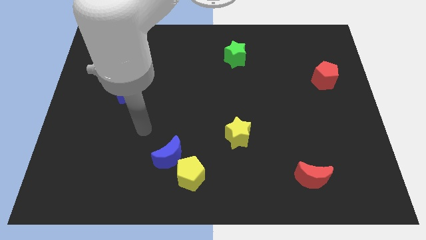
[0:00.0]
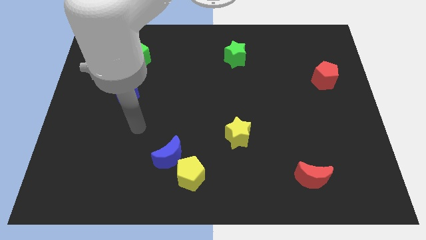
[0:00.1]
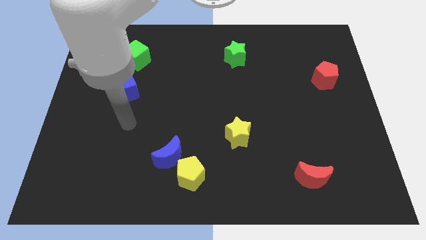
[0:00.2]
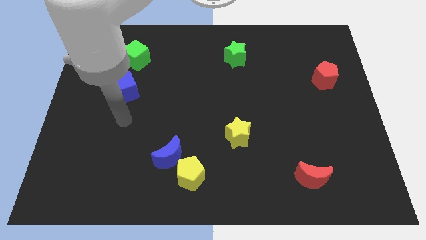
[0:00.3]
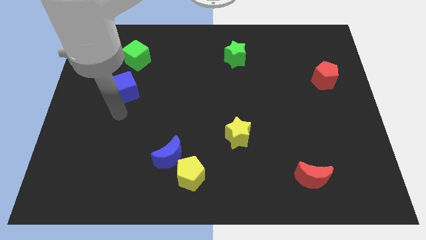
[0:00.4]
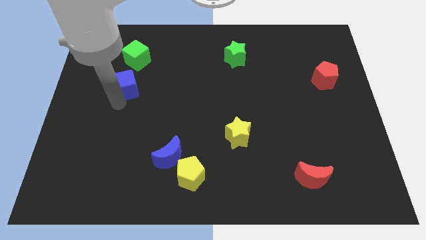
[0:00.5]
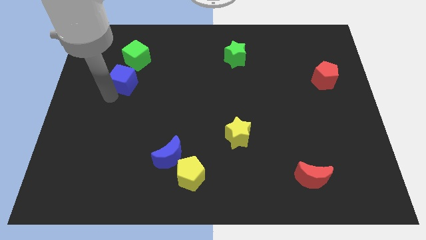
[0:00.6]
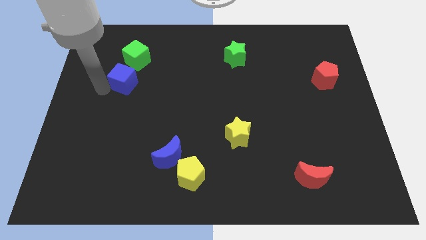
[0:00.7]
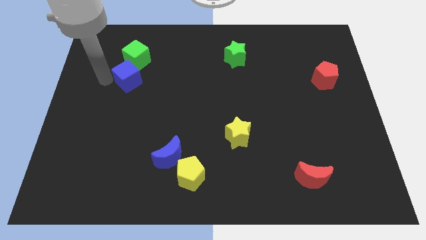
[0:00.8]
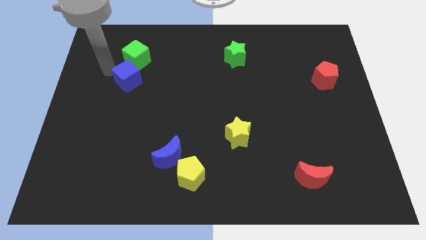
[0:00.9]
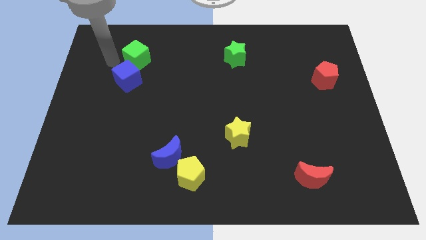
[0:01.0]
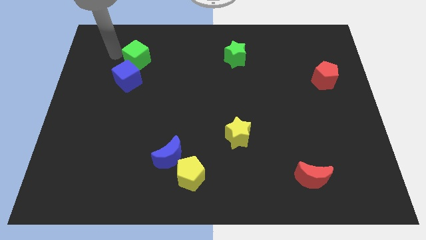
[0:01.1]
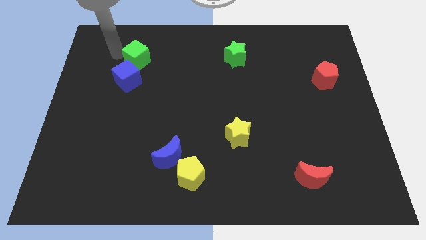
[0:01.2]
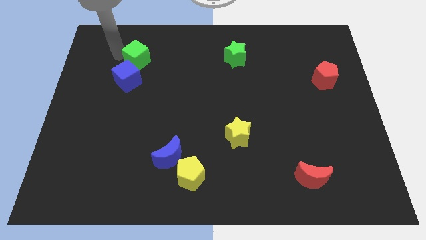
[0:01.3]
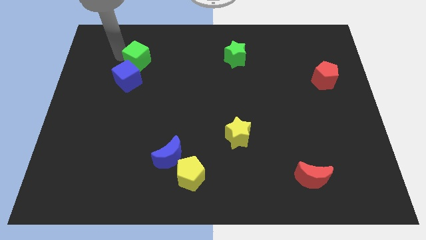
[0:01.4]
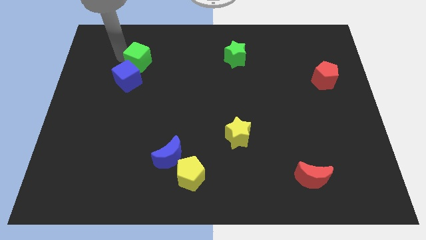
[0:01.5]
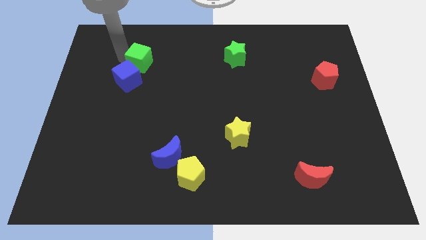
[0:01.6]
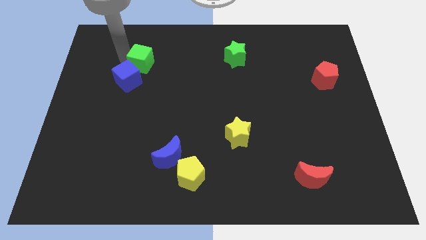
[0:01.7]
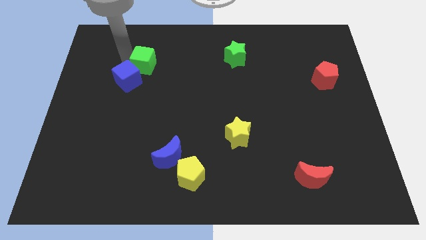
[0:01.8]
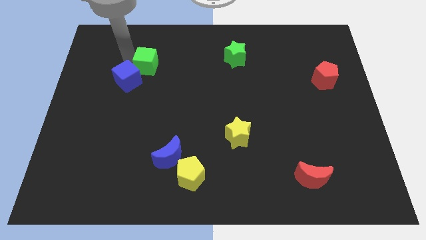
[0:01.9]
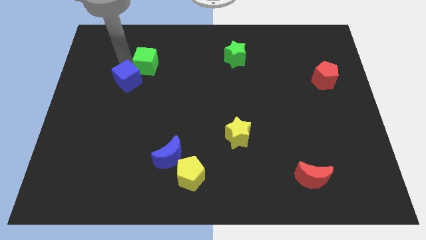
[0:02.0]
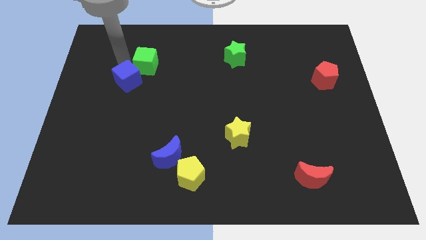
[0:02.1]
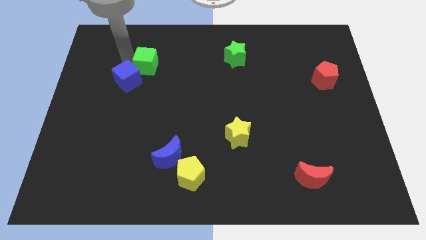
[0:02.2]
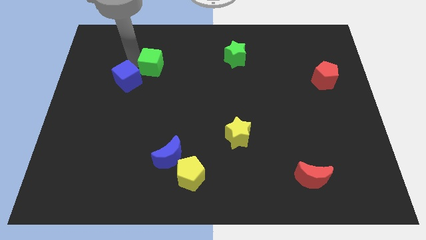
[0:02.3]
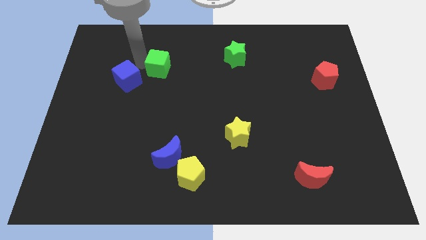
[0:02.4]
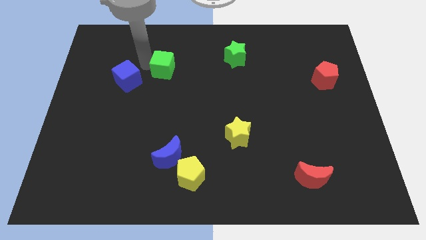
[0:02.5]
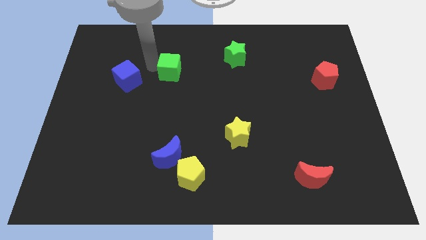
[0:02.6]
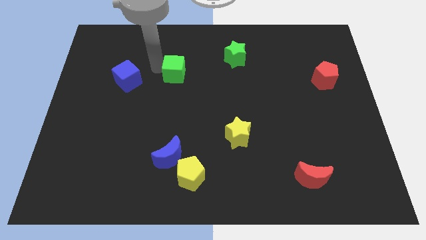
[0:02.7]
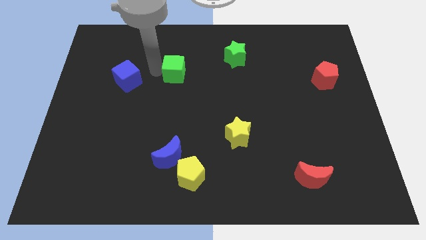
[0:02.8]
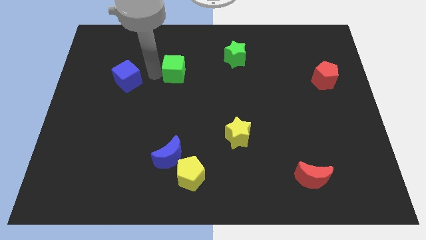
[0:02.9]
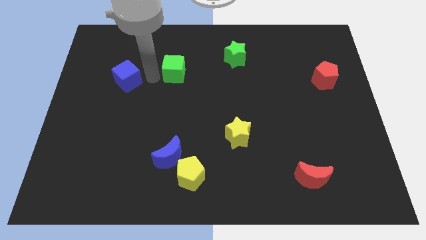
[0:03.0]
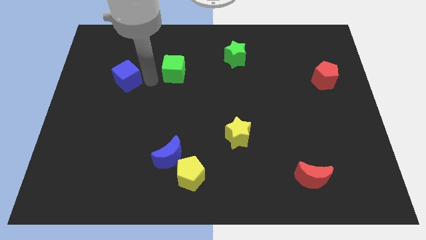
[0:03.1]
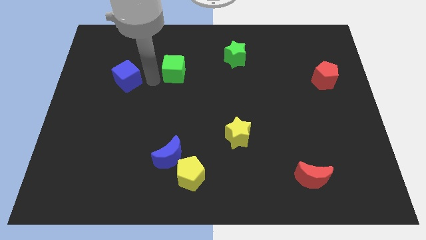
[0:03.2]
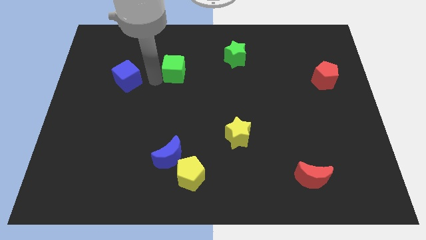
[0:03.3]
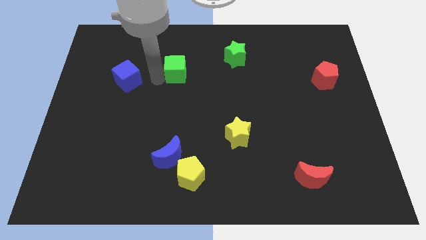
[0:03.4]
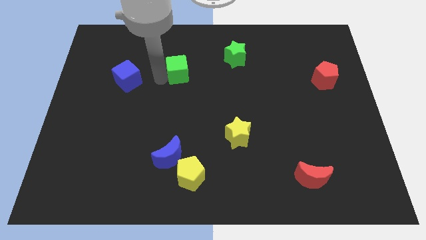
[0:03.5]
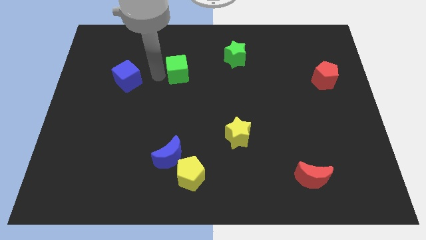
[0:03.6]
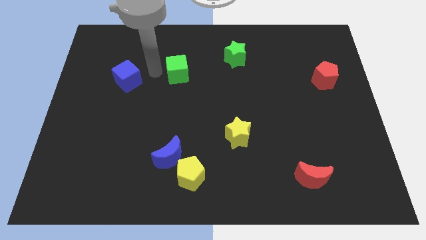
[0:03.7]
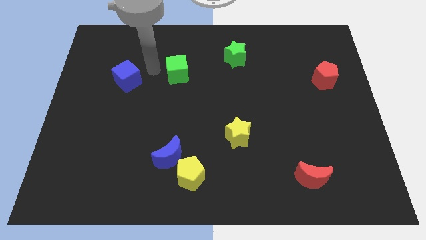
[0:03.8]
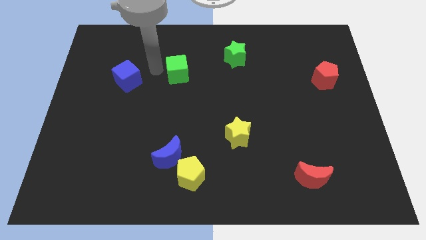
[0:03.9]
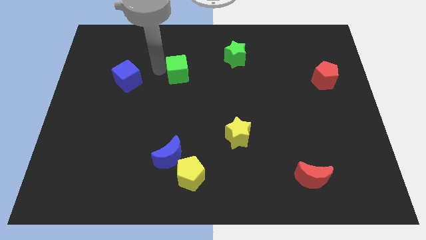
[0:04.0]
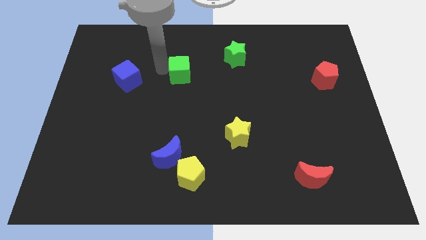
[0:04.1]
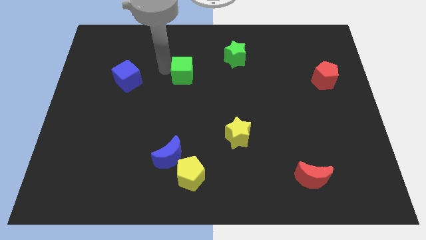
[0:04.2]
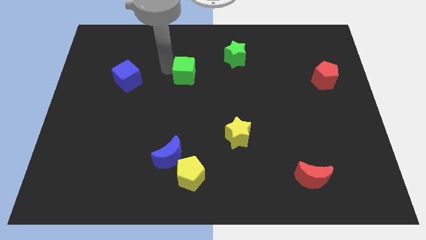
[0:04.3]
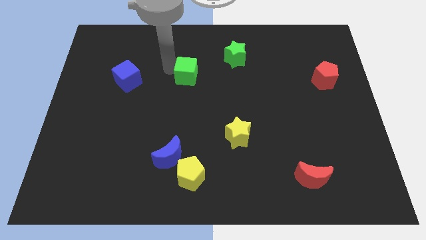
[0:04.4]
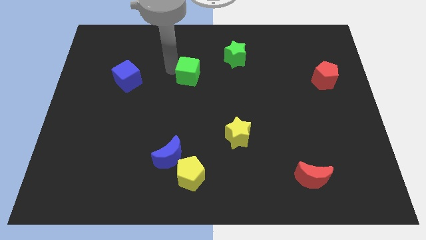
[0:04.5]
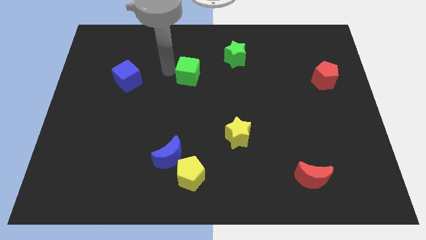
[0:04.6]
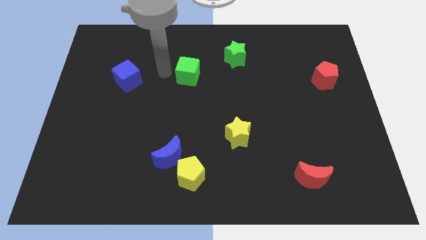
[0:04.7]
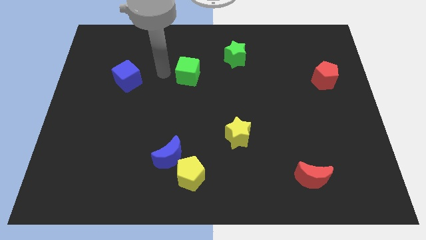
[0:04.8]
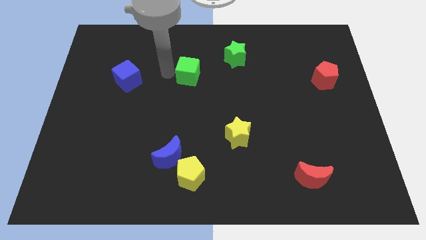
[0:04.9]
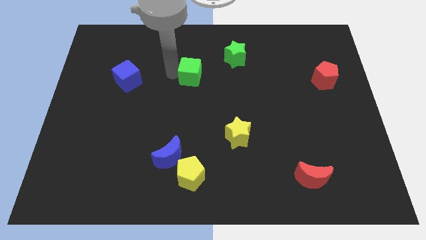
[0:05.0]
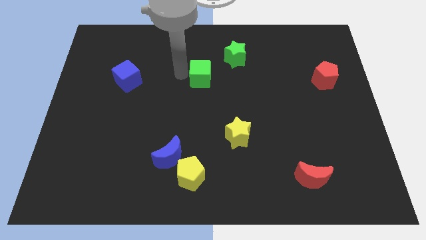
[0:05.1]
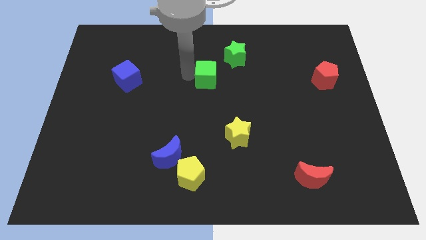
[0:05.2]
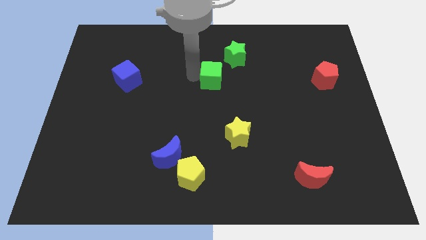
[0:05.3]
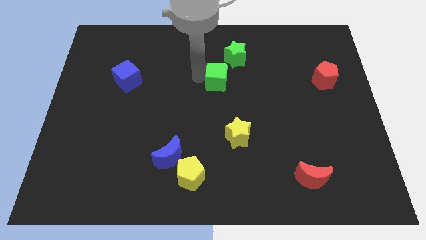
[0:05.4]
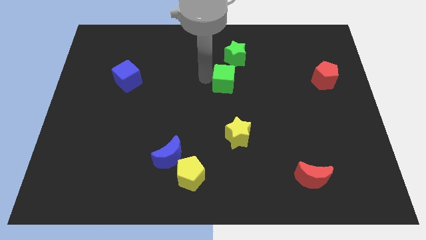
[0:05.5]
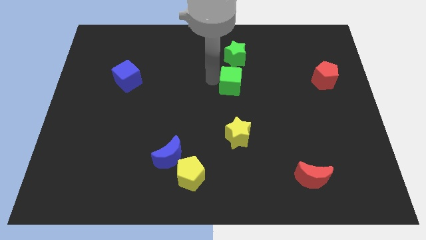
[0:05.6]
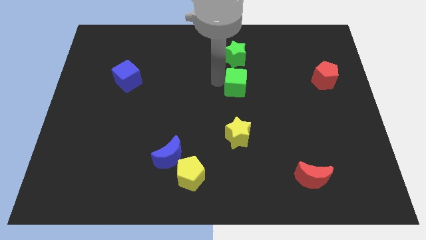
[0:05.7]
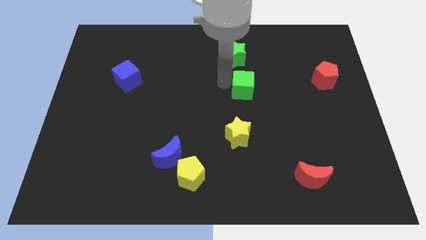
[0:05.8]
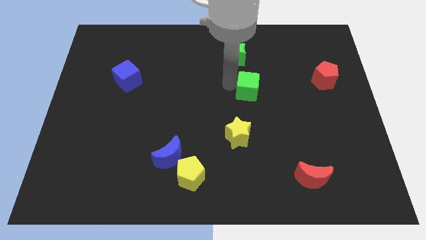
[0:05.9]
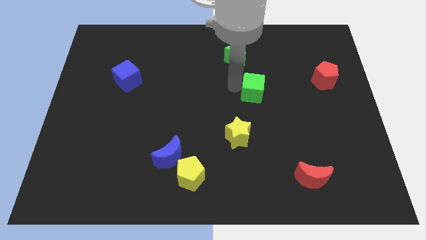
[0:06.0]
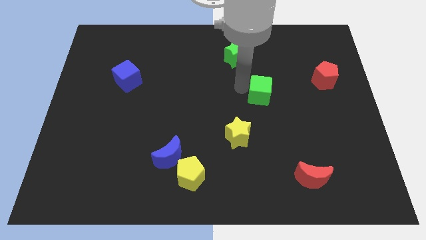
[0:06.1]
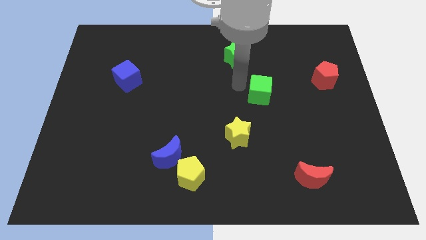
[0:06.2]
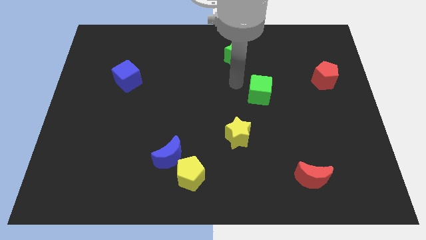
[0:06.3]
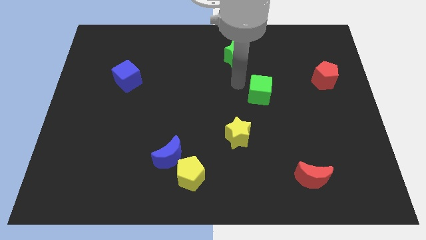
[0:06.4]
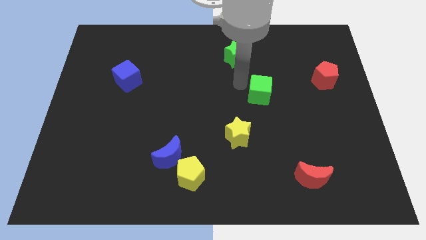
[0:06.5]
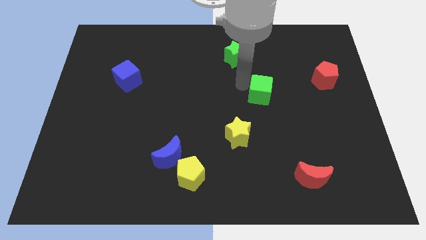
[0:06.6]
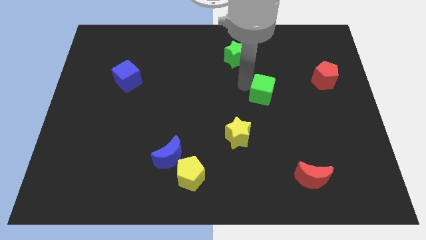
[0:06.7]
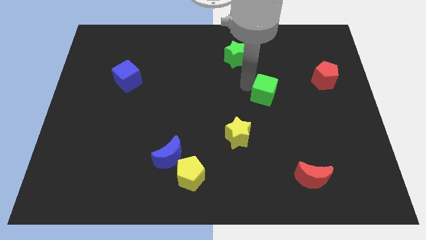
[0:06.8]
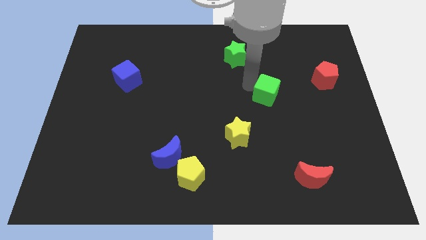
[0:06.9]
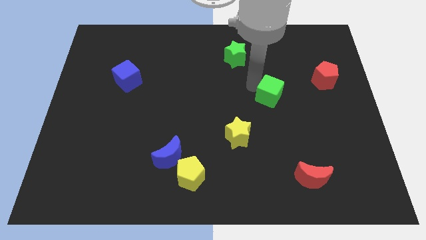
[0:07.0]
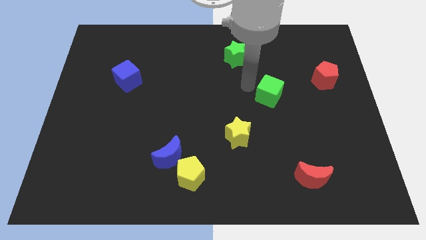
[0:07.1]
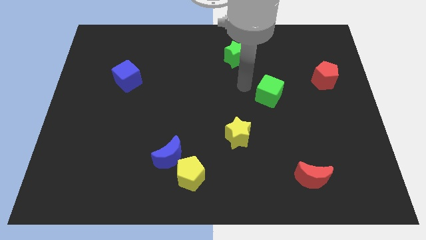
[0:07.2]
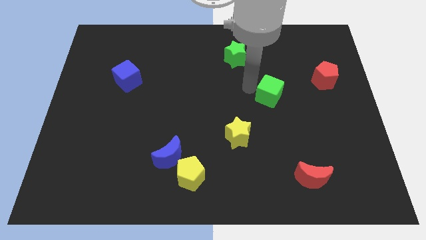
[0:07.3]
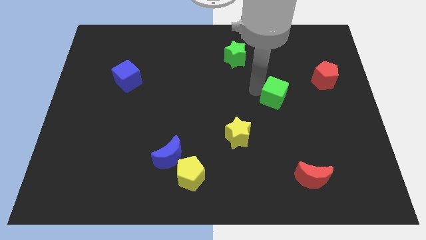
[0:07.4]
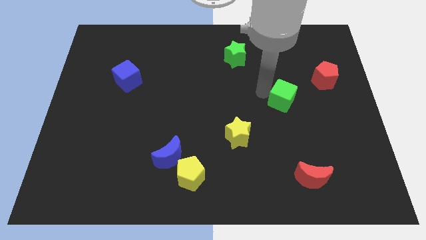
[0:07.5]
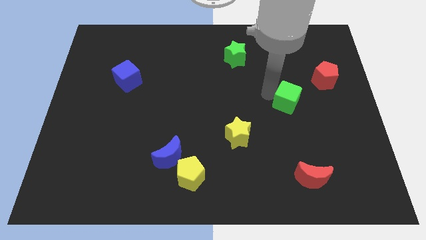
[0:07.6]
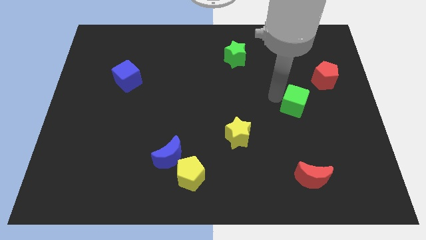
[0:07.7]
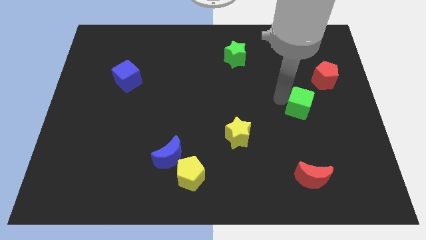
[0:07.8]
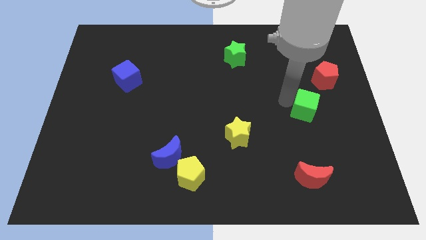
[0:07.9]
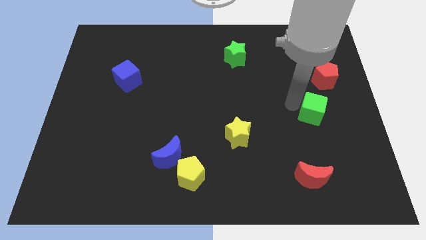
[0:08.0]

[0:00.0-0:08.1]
move the green cube to the bottom of the red pentagon
